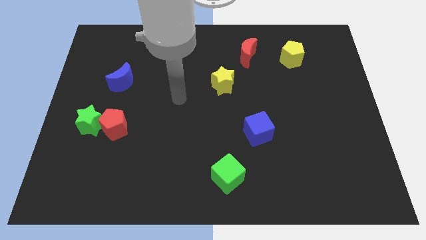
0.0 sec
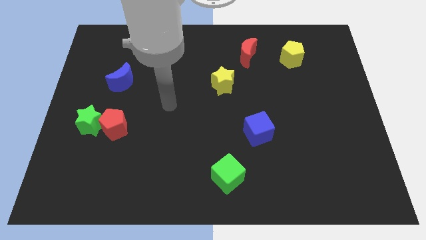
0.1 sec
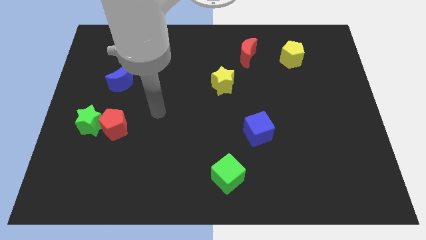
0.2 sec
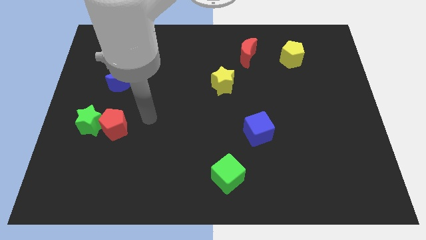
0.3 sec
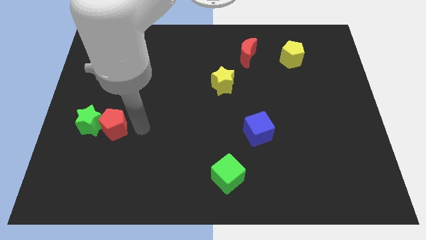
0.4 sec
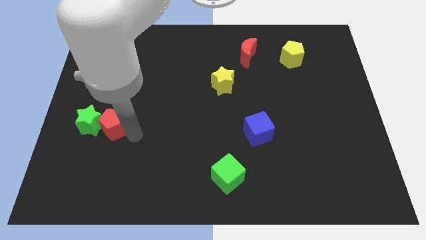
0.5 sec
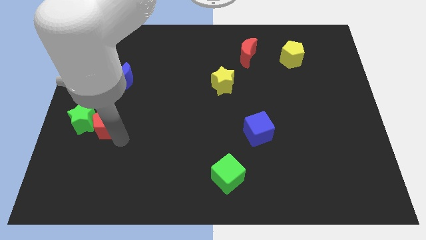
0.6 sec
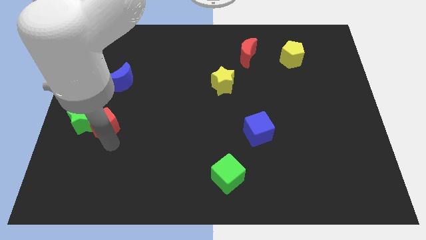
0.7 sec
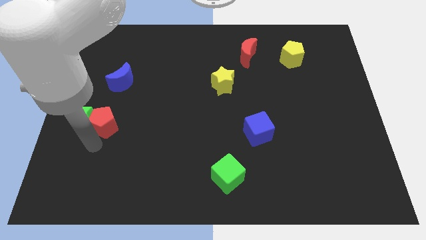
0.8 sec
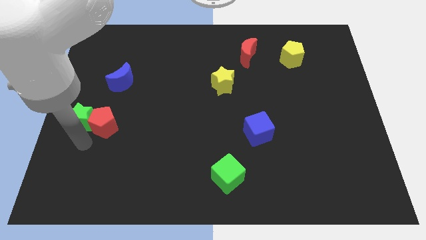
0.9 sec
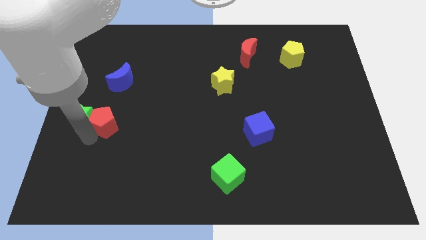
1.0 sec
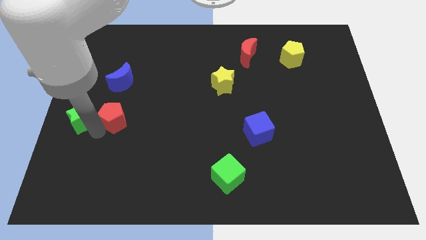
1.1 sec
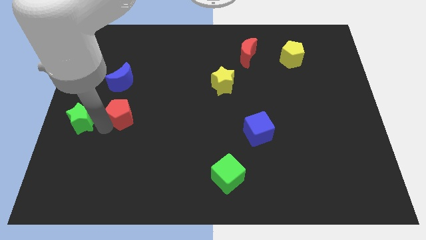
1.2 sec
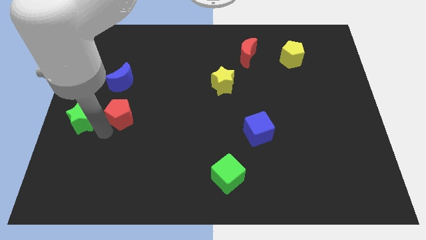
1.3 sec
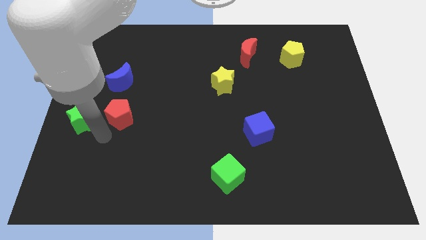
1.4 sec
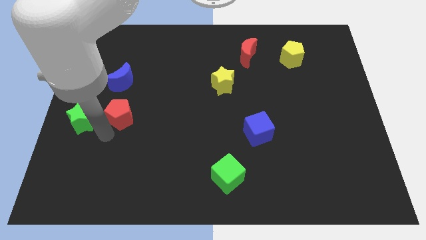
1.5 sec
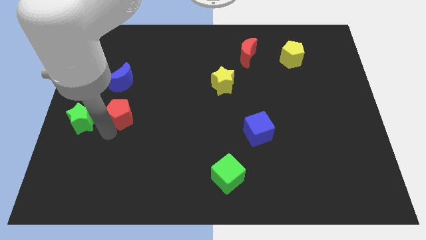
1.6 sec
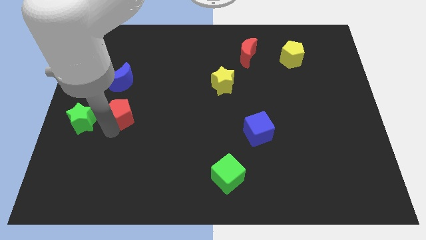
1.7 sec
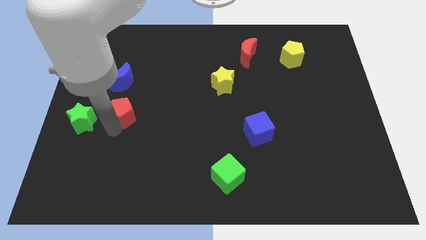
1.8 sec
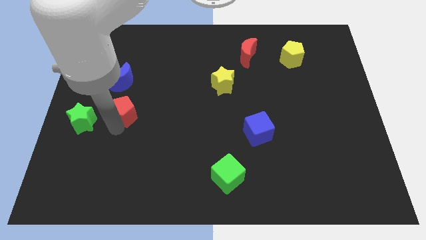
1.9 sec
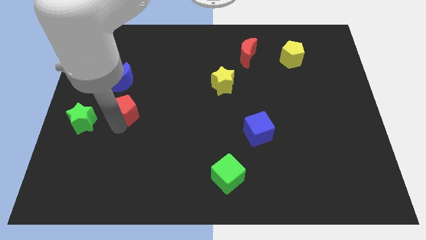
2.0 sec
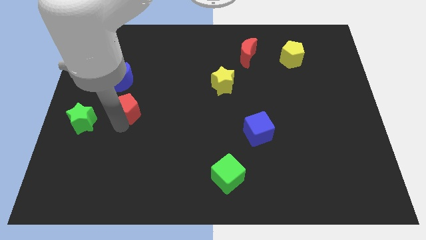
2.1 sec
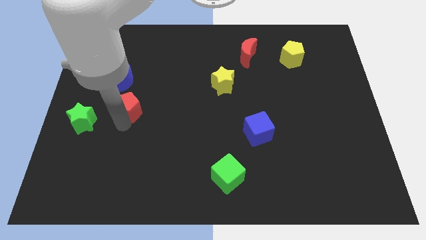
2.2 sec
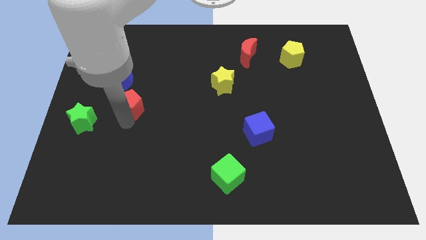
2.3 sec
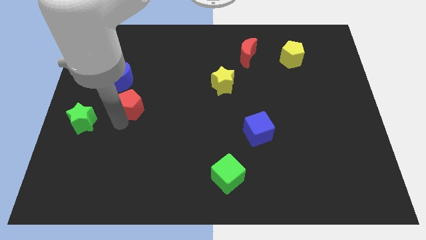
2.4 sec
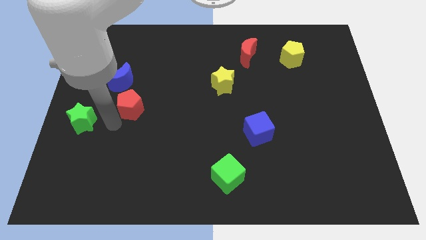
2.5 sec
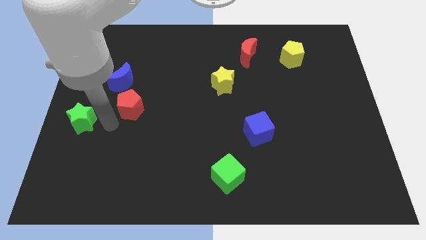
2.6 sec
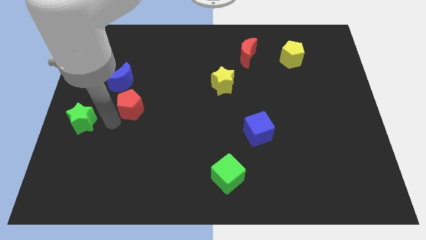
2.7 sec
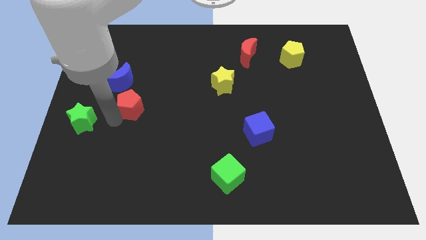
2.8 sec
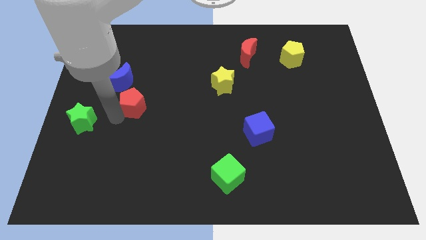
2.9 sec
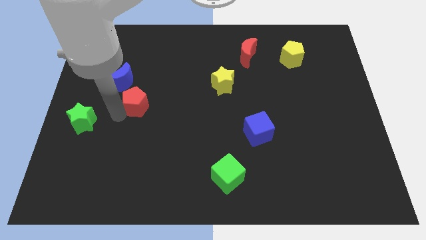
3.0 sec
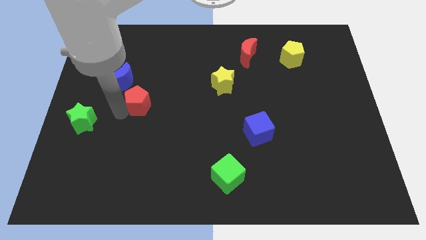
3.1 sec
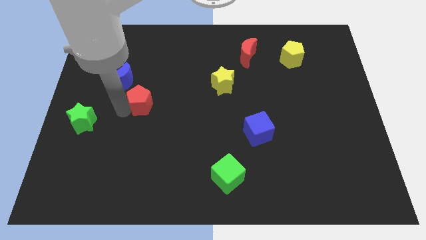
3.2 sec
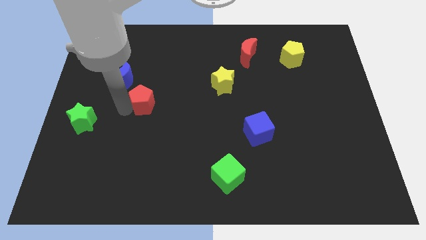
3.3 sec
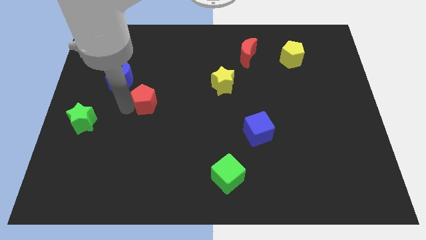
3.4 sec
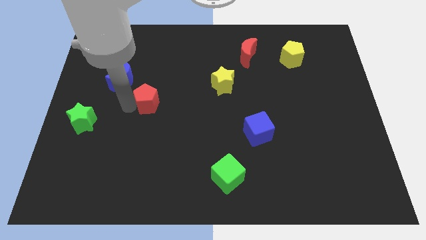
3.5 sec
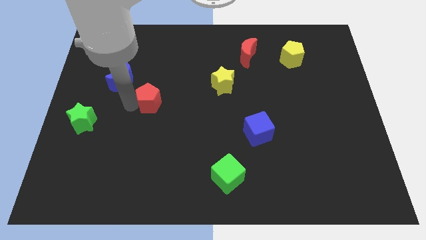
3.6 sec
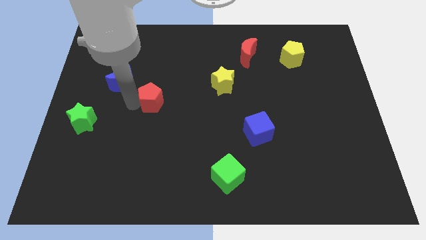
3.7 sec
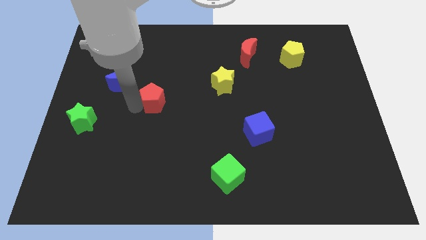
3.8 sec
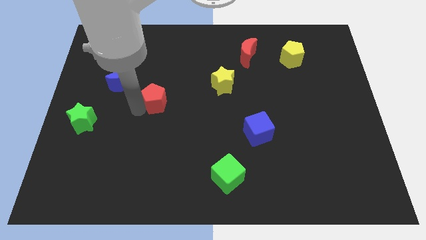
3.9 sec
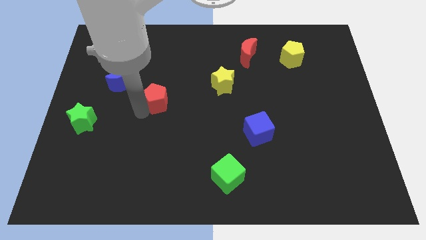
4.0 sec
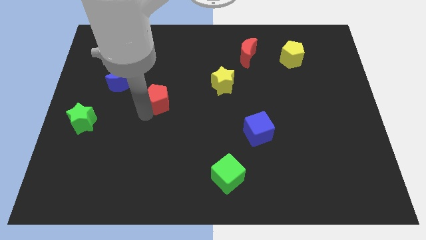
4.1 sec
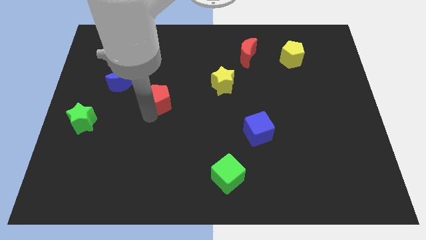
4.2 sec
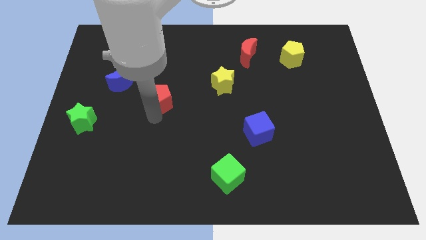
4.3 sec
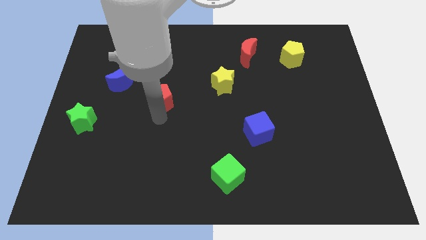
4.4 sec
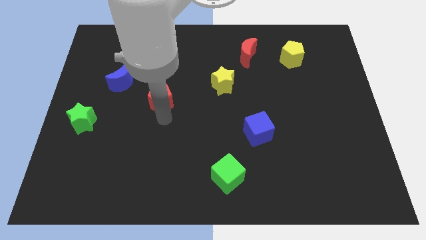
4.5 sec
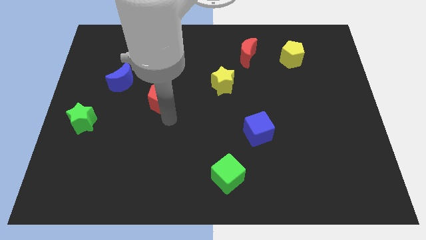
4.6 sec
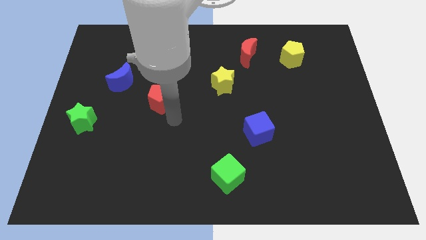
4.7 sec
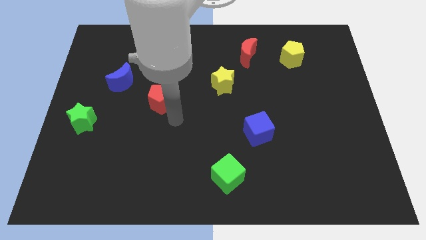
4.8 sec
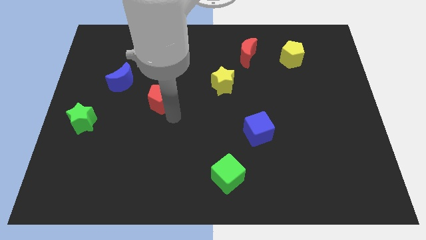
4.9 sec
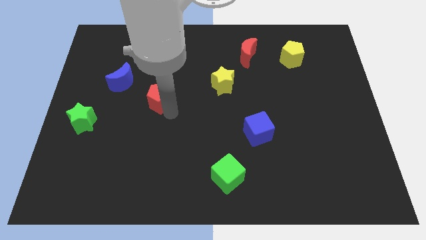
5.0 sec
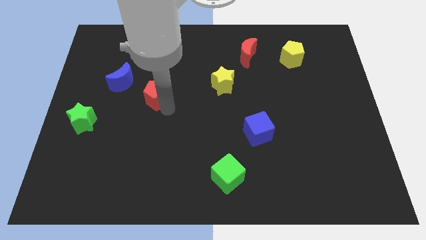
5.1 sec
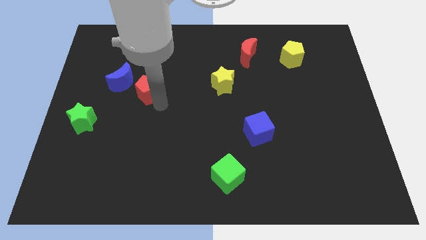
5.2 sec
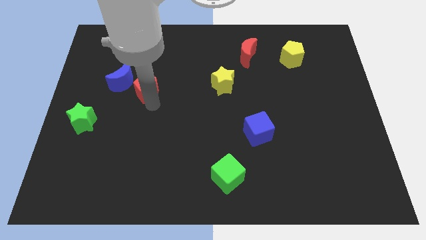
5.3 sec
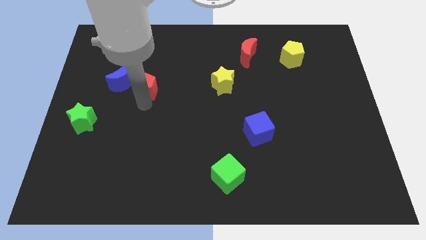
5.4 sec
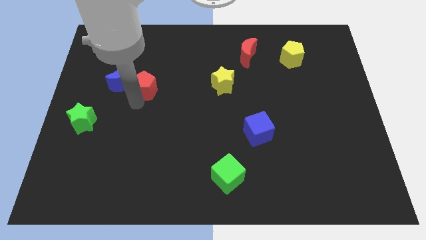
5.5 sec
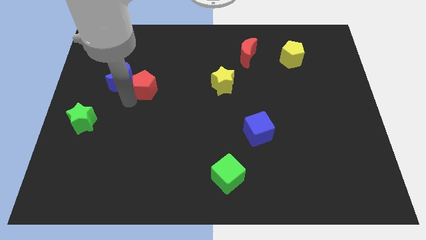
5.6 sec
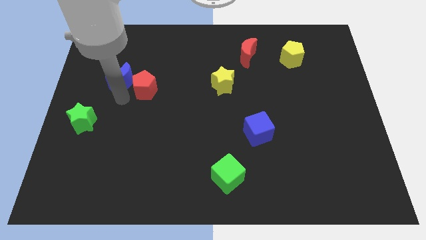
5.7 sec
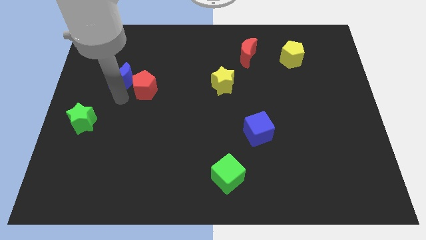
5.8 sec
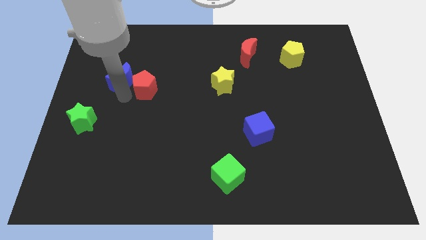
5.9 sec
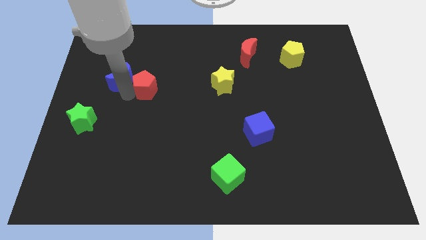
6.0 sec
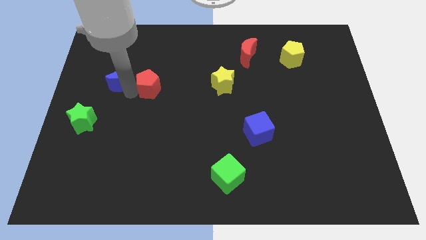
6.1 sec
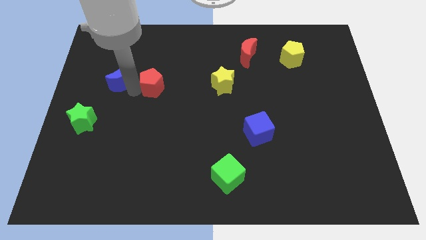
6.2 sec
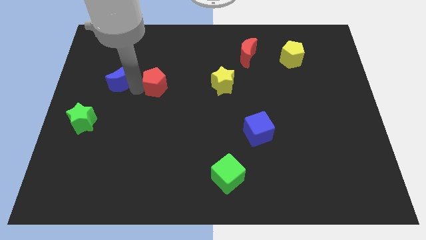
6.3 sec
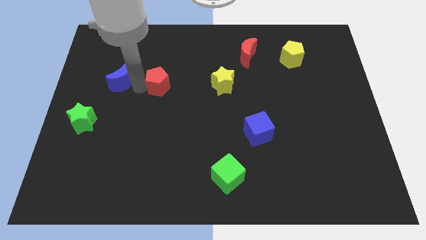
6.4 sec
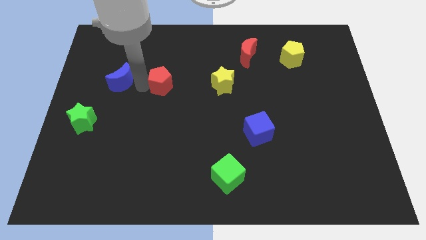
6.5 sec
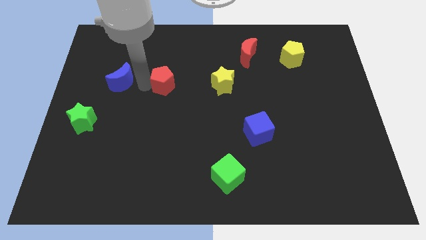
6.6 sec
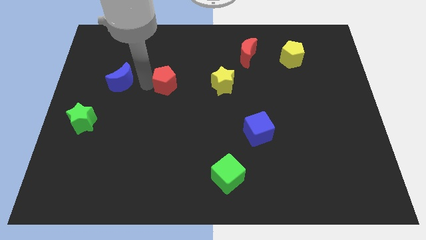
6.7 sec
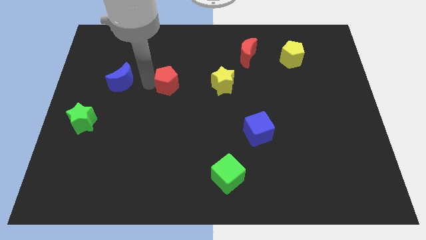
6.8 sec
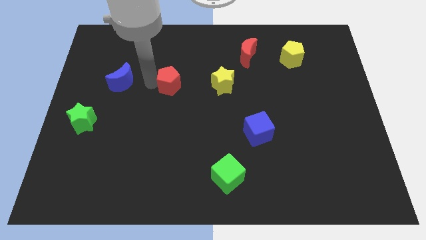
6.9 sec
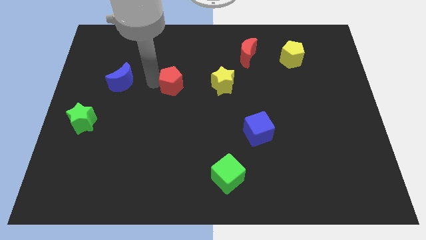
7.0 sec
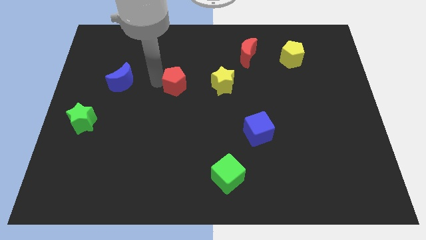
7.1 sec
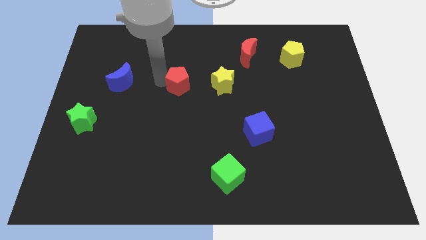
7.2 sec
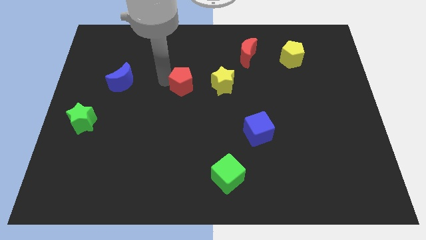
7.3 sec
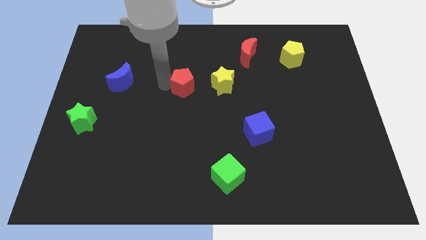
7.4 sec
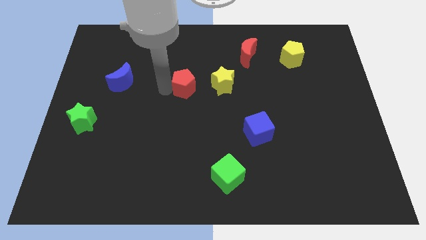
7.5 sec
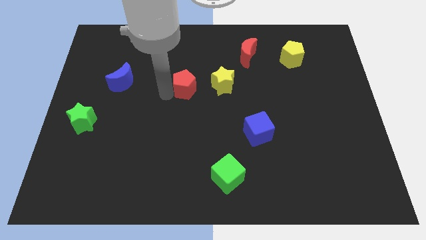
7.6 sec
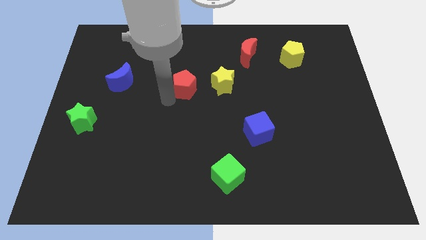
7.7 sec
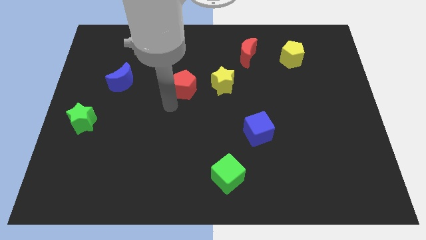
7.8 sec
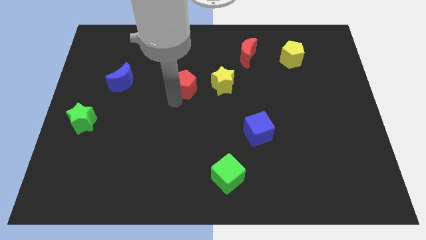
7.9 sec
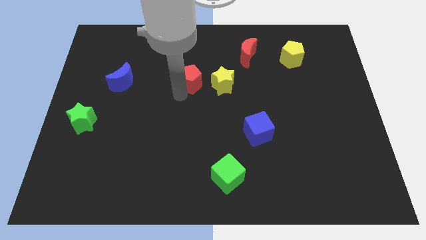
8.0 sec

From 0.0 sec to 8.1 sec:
push the red pentagon up and then right

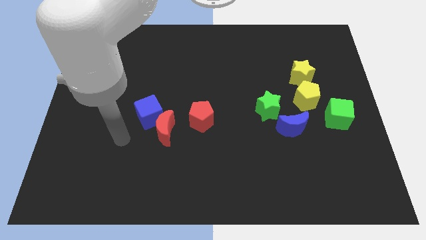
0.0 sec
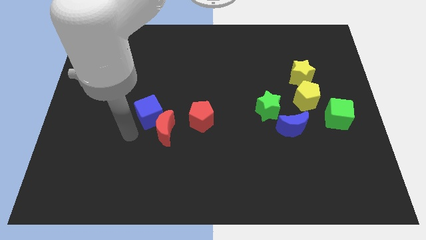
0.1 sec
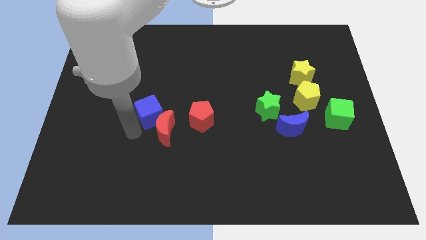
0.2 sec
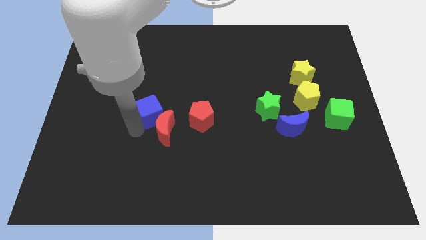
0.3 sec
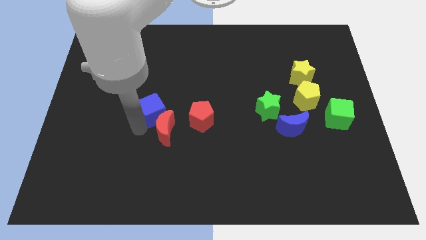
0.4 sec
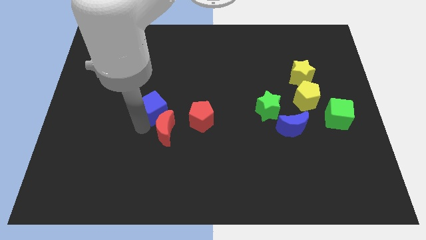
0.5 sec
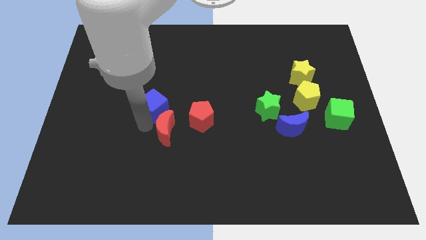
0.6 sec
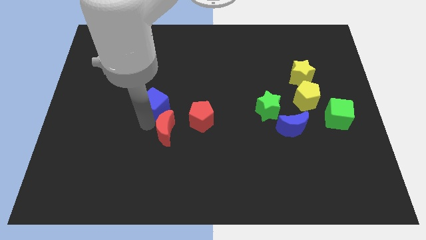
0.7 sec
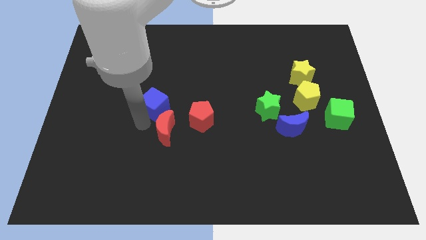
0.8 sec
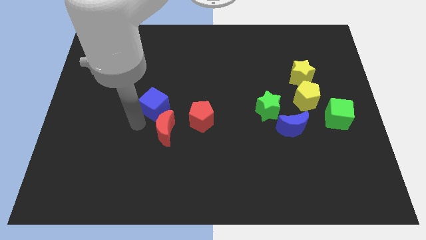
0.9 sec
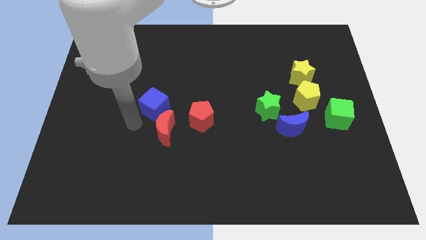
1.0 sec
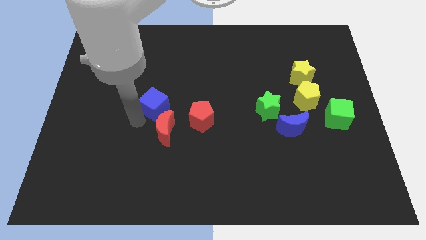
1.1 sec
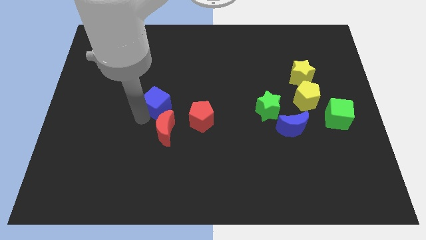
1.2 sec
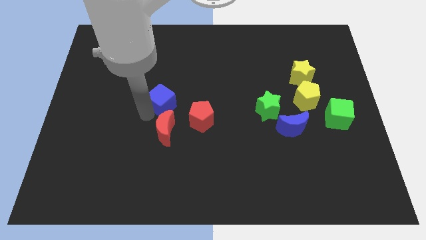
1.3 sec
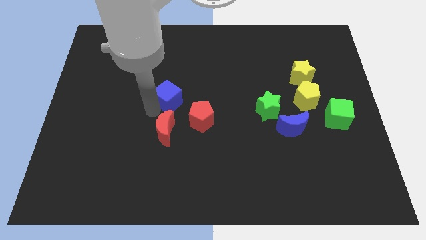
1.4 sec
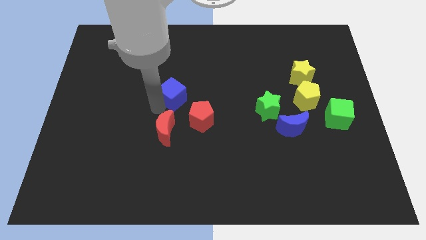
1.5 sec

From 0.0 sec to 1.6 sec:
slightly push the blue cube upwards and right
